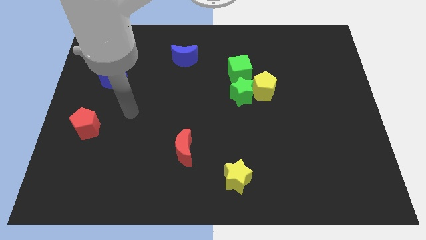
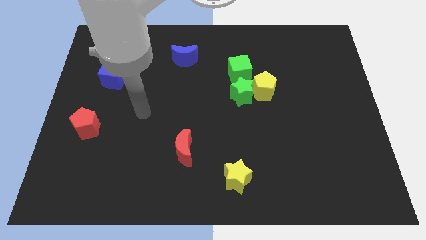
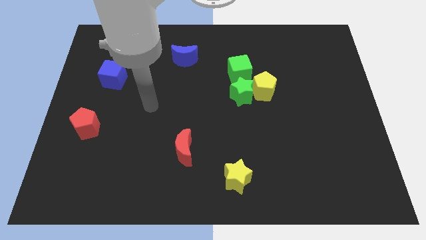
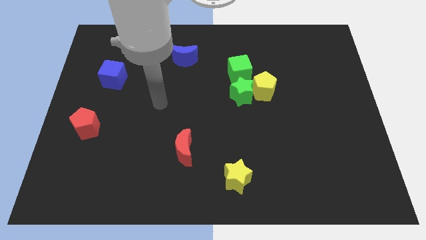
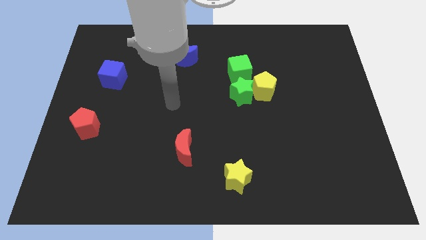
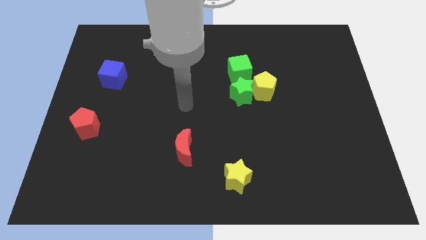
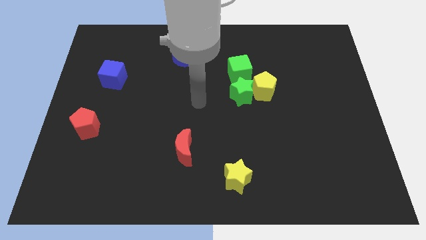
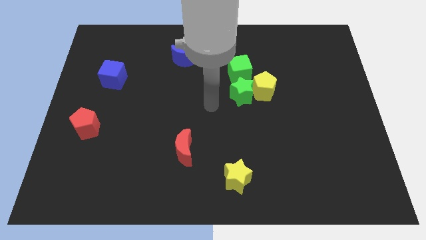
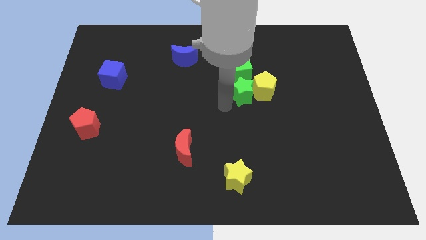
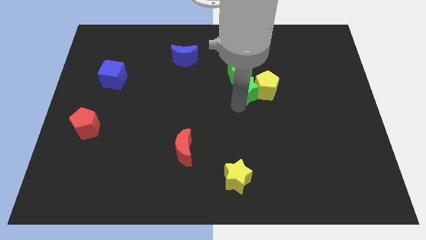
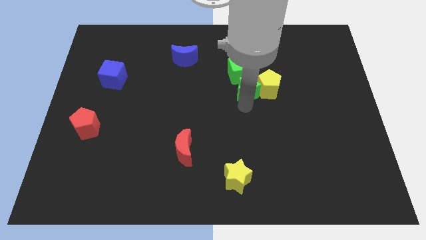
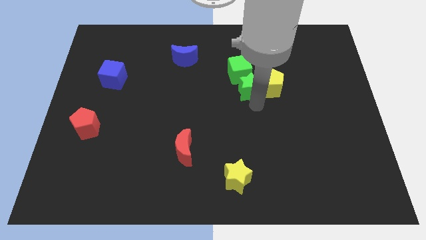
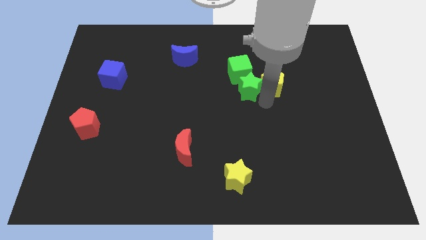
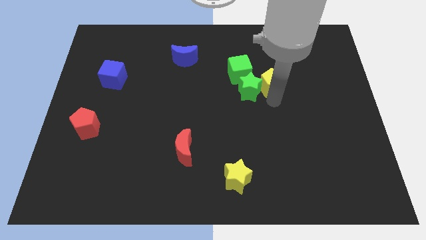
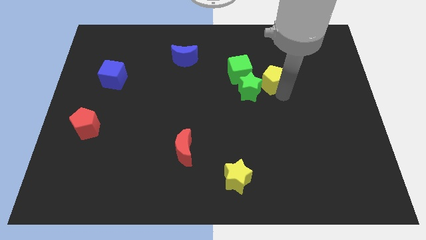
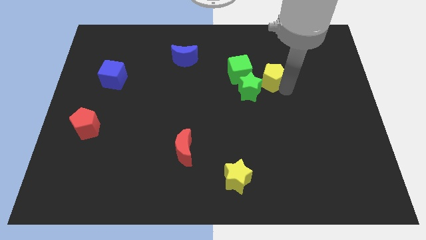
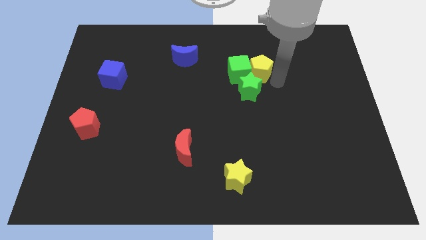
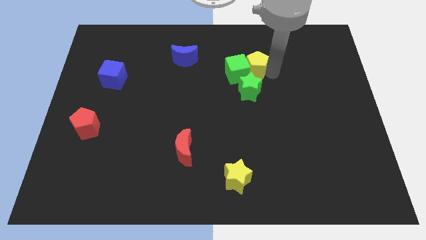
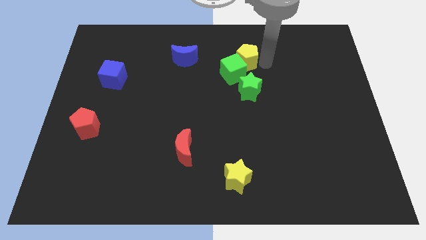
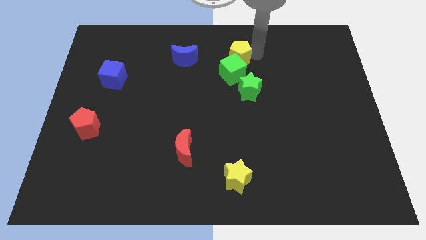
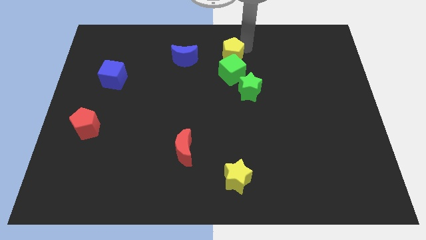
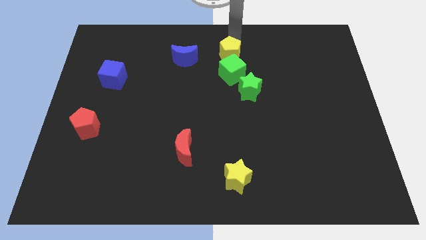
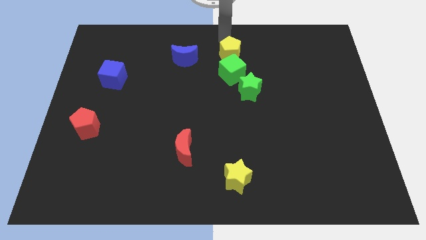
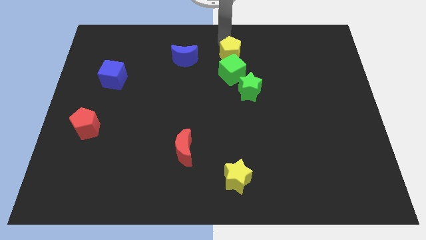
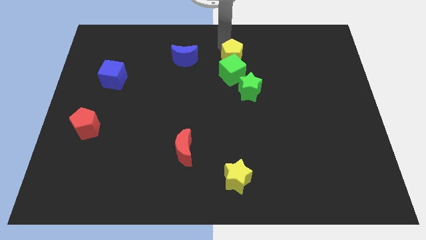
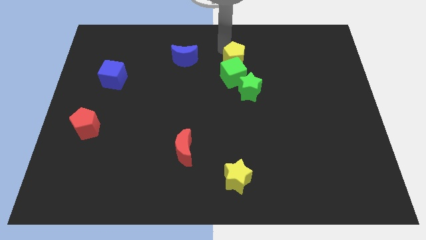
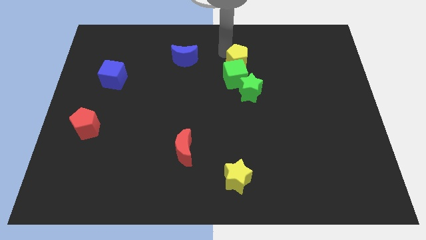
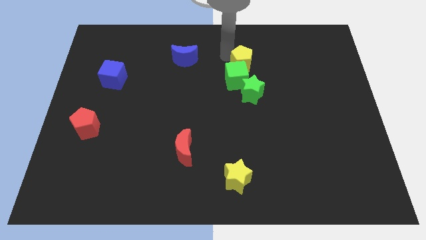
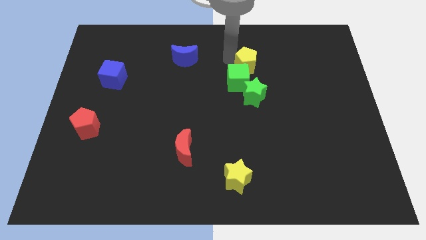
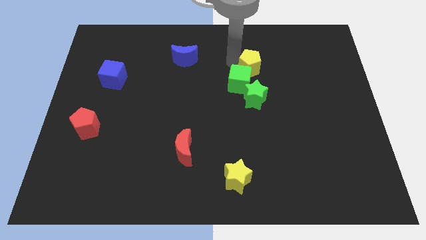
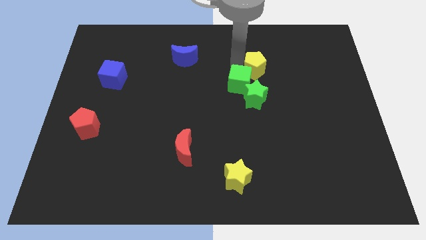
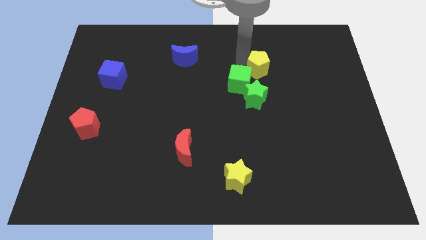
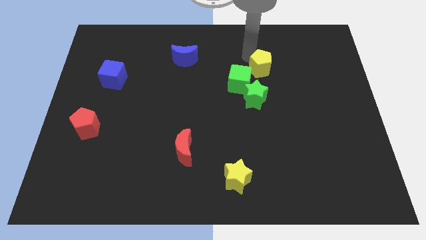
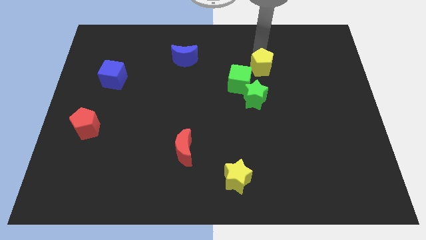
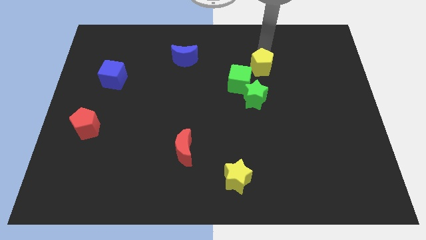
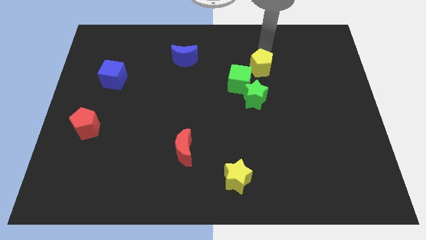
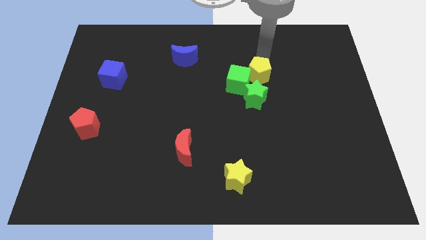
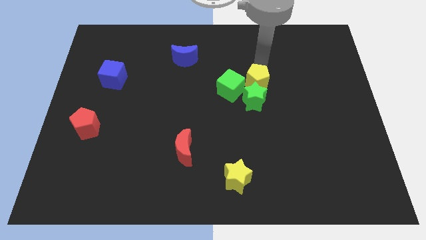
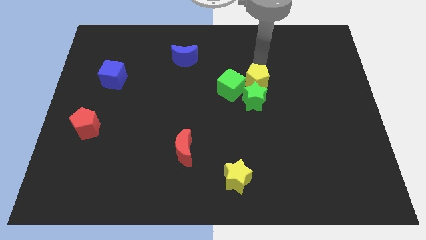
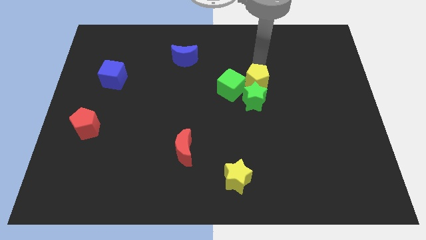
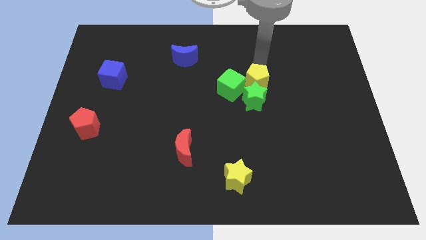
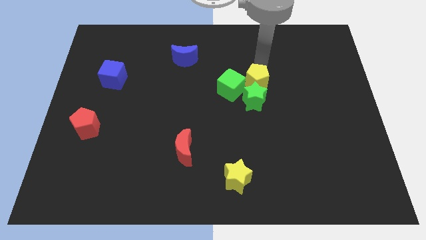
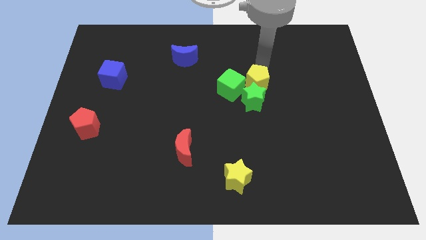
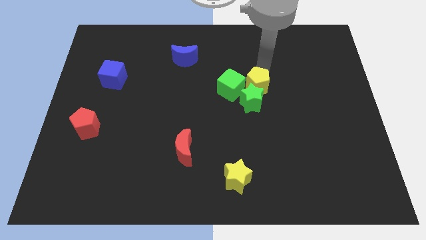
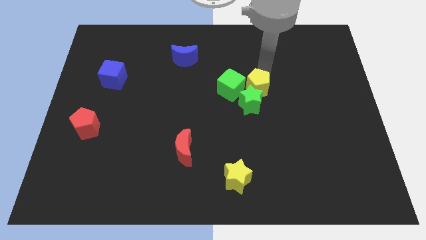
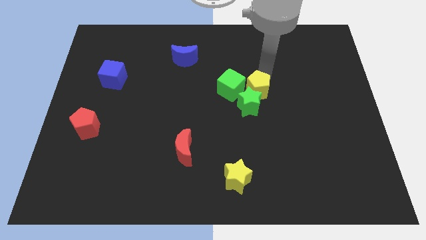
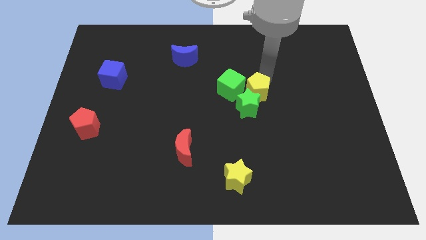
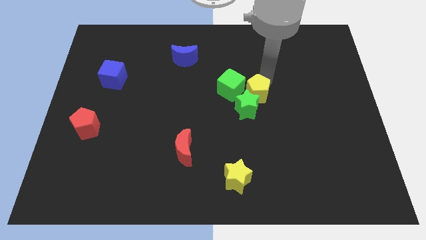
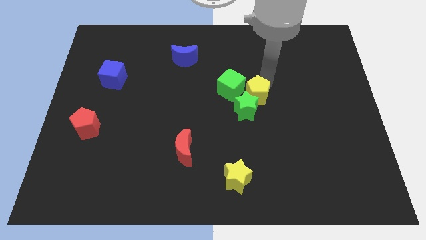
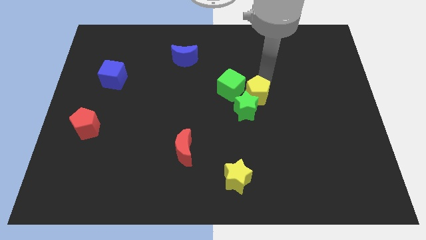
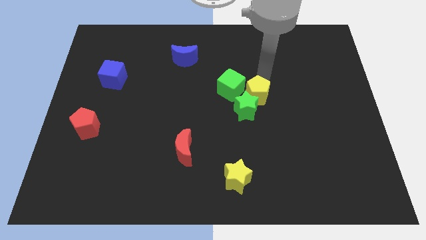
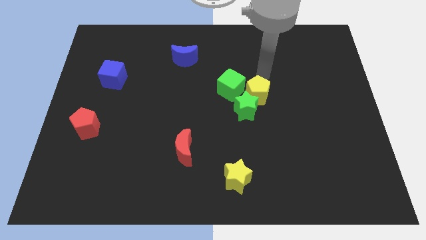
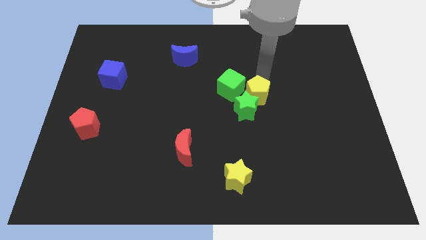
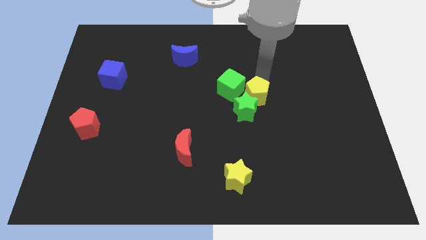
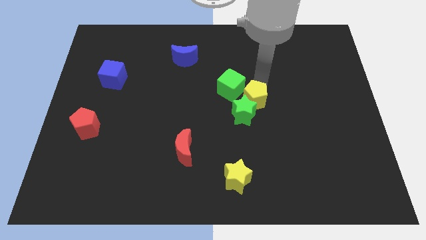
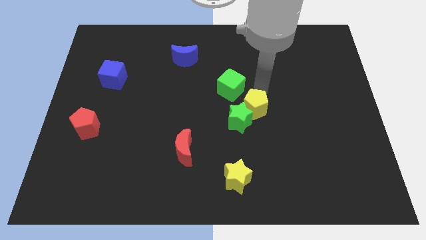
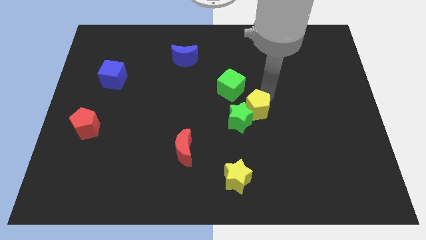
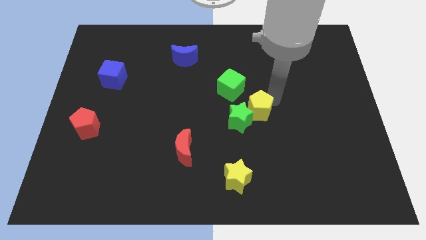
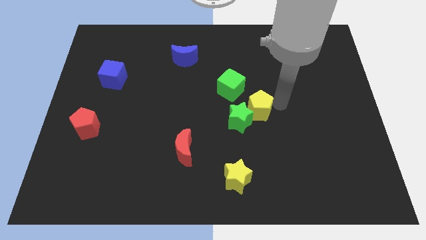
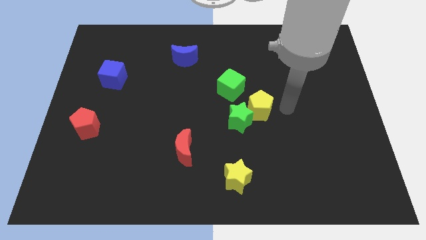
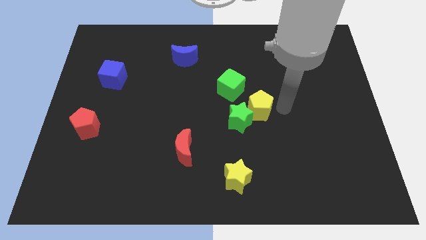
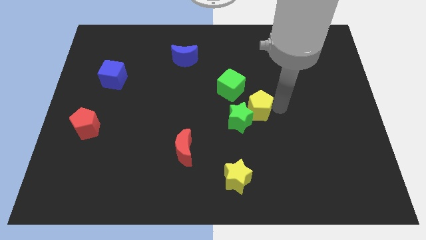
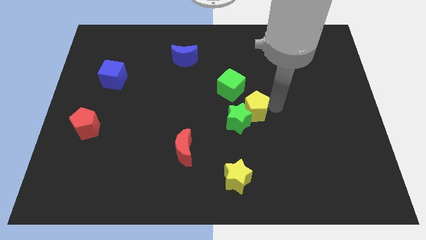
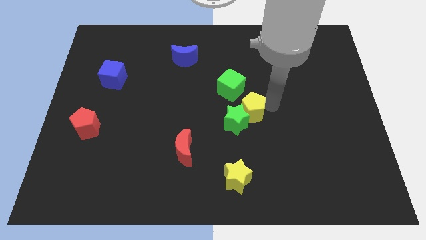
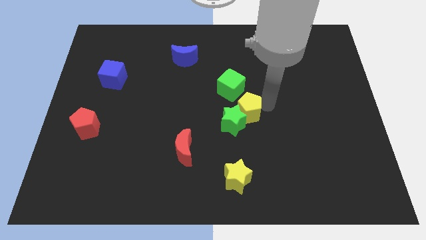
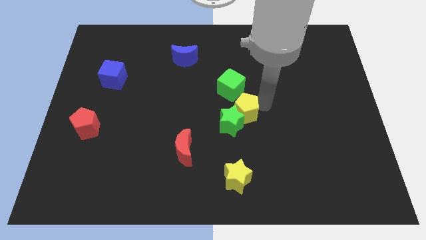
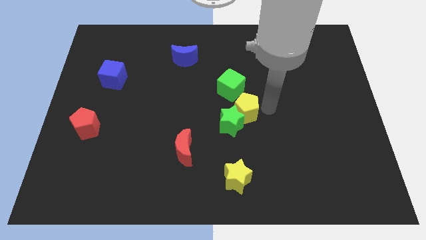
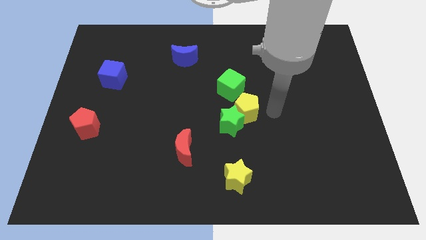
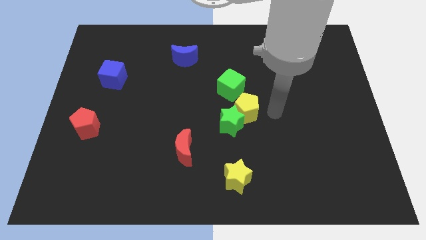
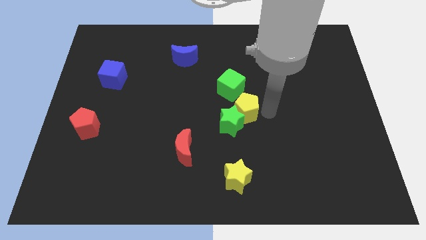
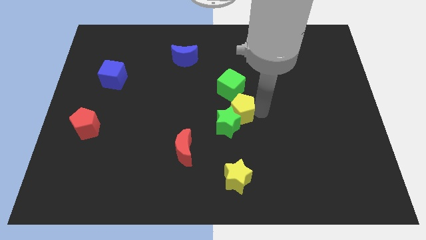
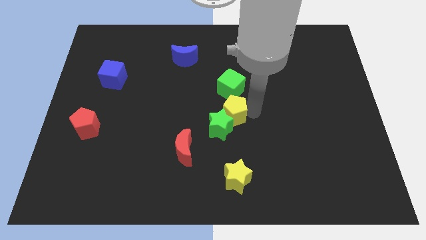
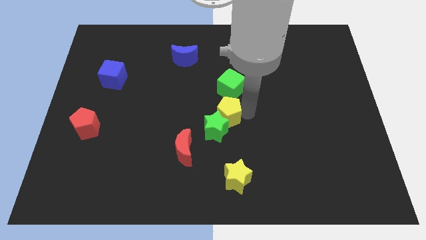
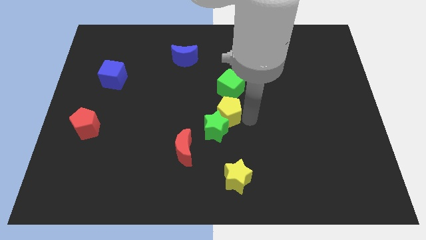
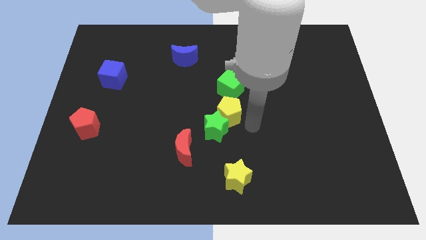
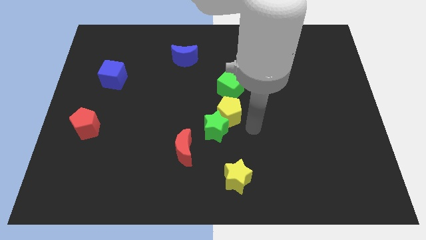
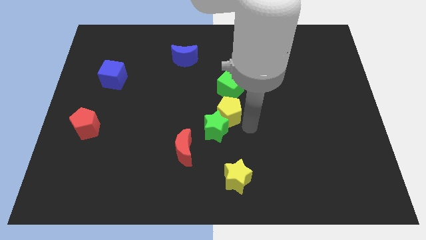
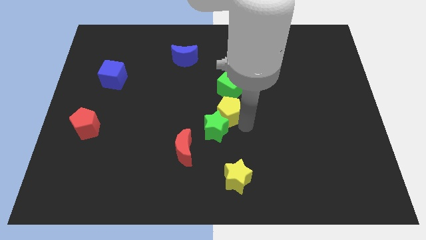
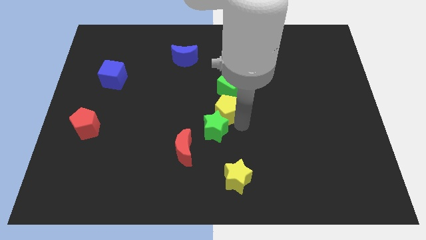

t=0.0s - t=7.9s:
move the yellow pentagon a little left

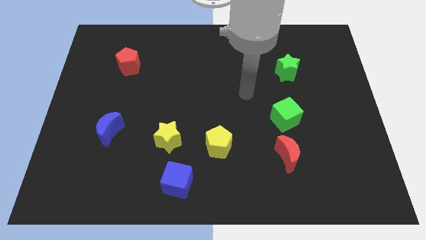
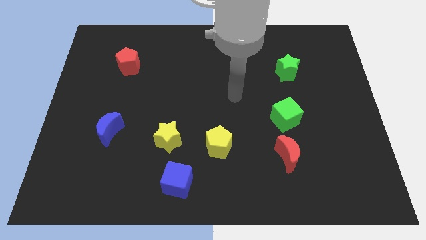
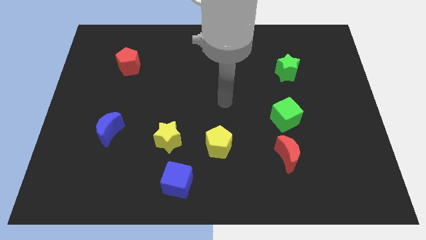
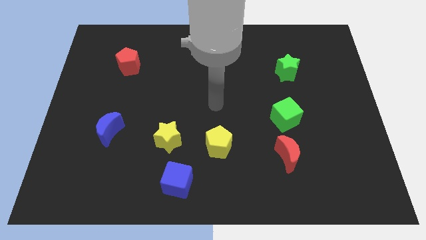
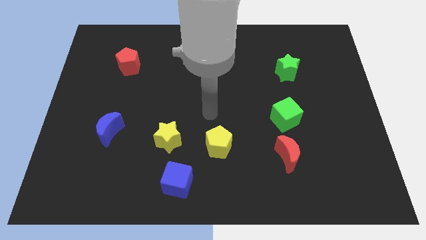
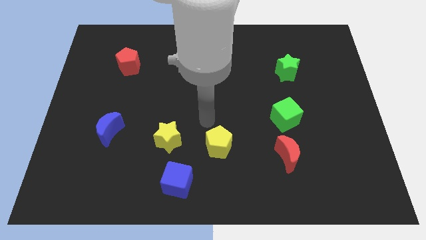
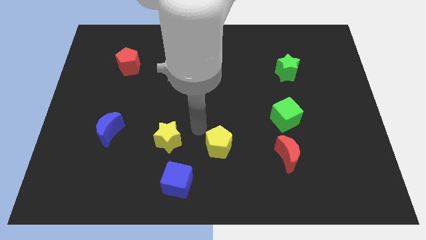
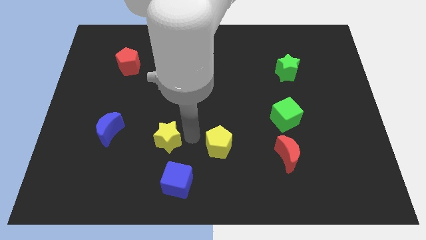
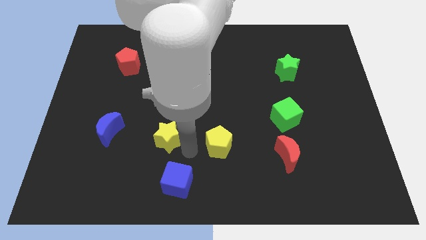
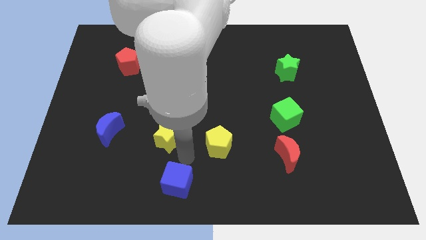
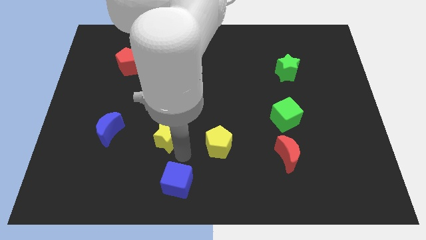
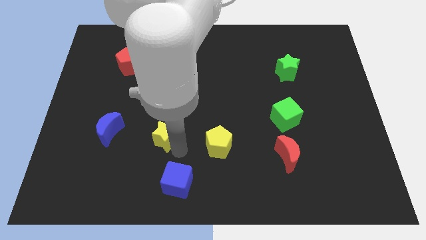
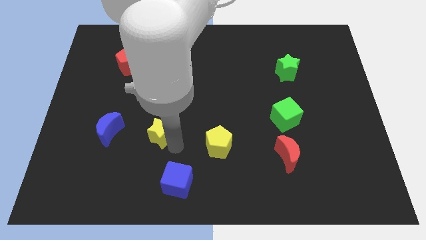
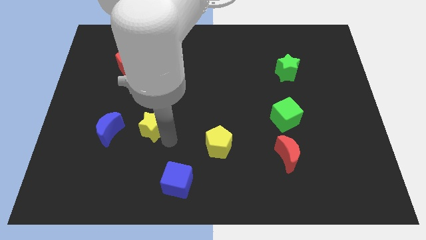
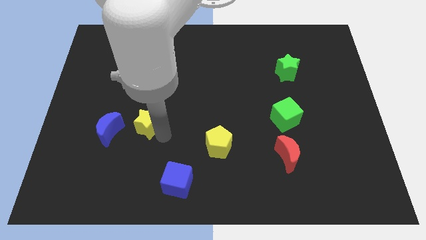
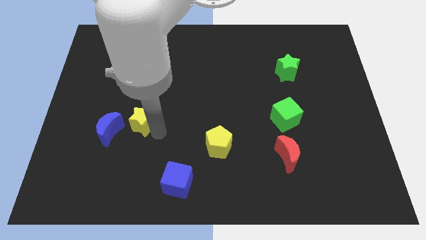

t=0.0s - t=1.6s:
slightly move the yellow star upwards and left diagonally
